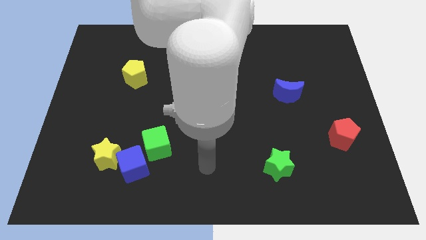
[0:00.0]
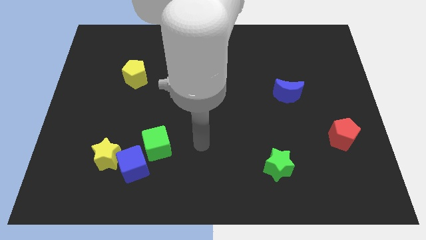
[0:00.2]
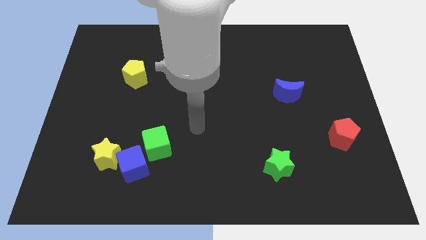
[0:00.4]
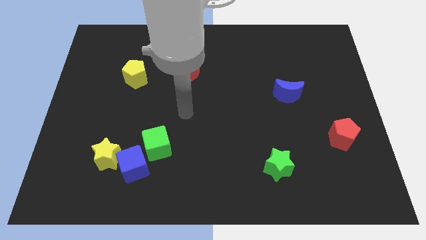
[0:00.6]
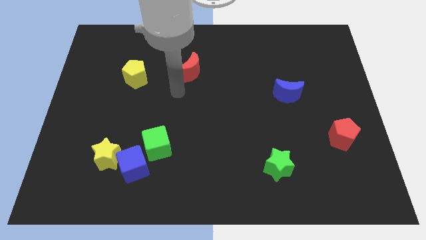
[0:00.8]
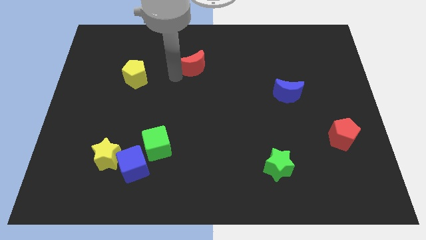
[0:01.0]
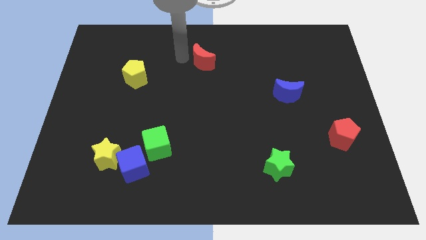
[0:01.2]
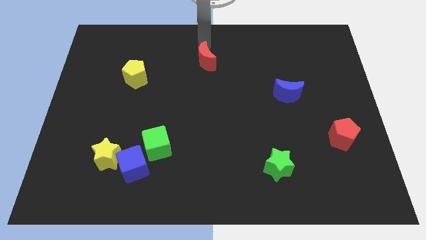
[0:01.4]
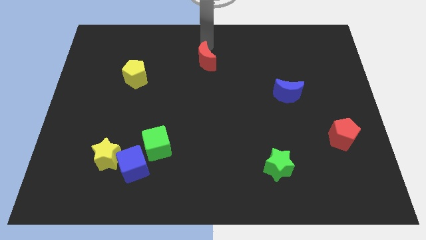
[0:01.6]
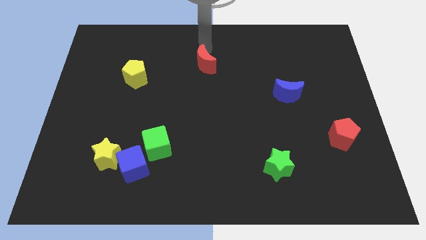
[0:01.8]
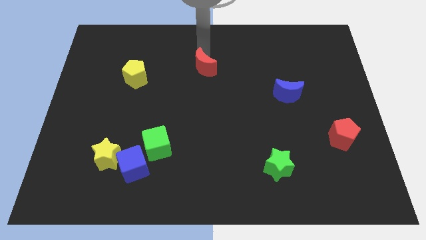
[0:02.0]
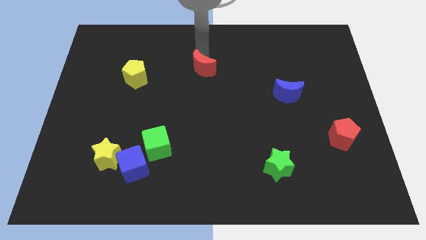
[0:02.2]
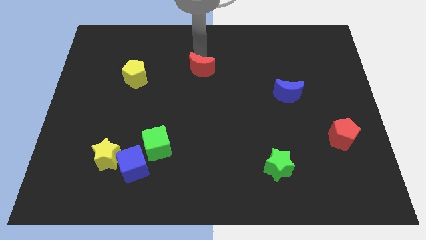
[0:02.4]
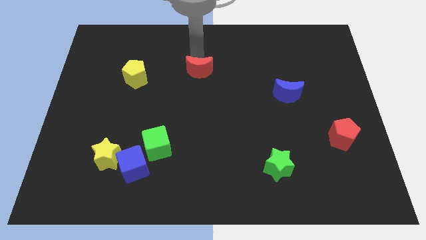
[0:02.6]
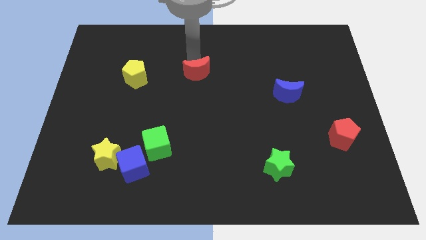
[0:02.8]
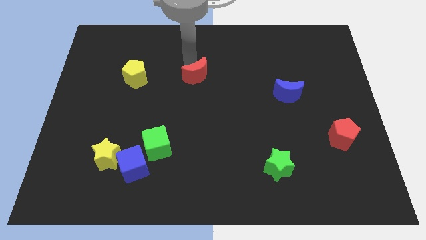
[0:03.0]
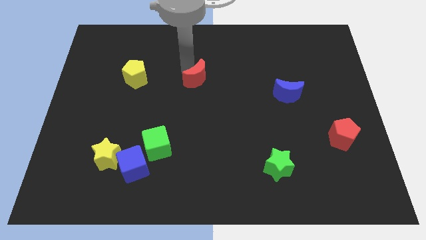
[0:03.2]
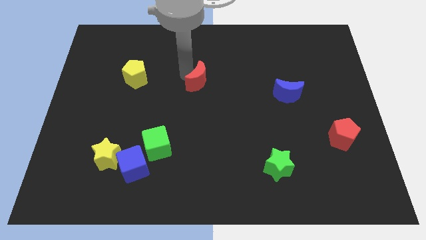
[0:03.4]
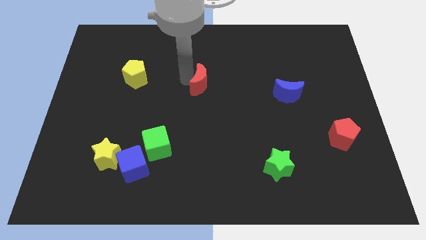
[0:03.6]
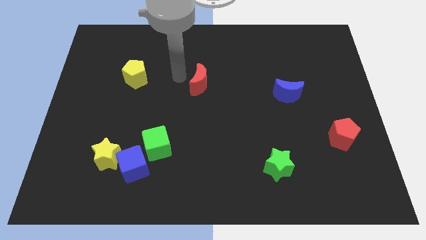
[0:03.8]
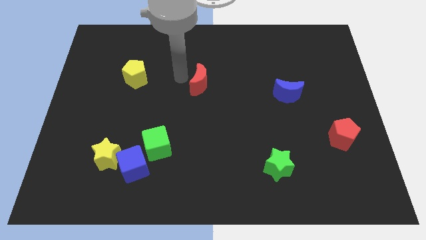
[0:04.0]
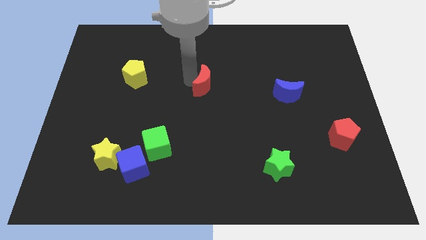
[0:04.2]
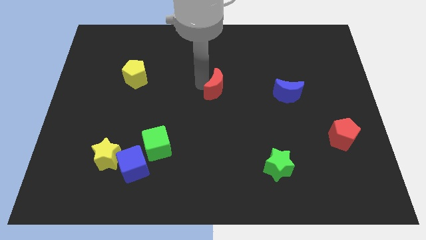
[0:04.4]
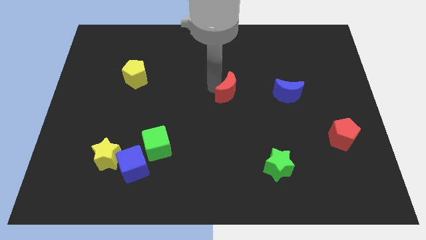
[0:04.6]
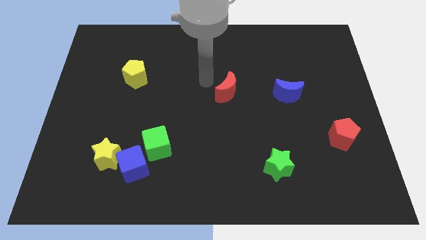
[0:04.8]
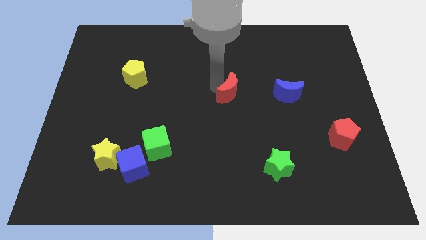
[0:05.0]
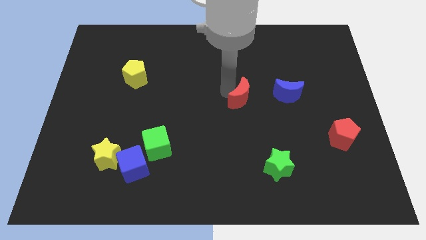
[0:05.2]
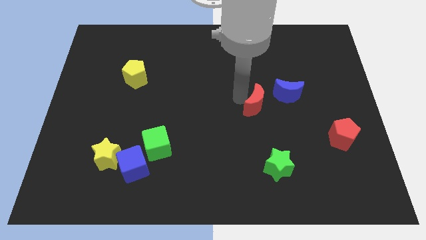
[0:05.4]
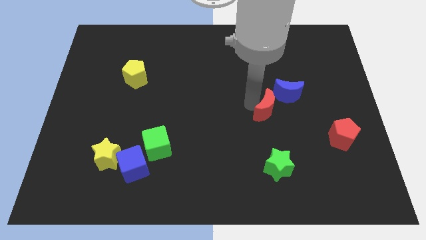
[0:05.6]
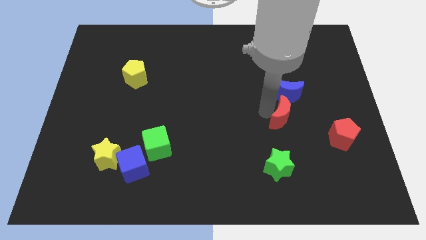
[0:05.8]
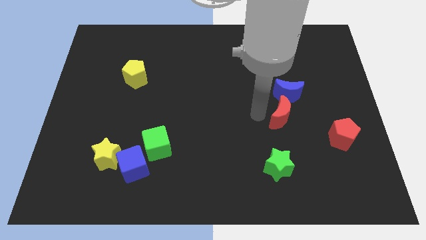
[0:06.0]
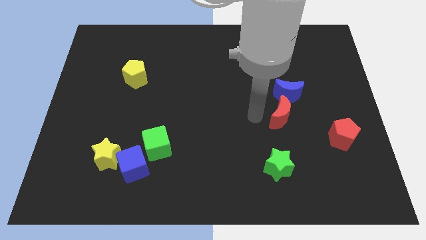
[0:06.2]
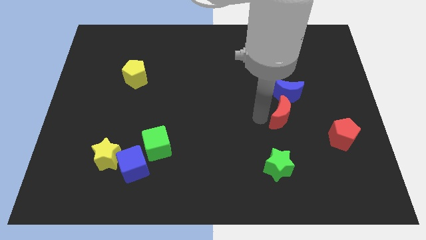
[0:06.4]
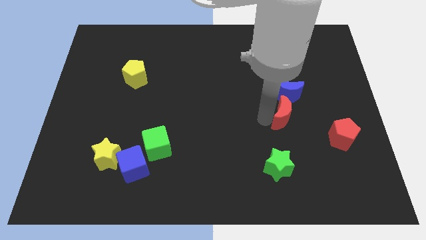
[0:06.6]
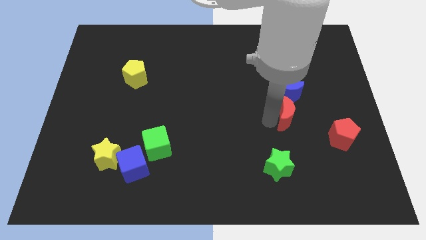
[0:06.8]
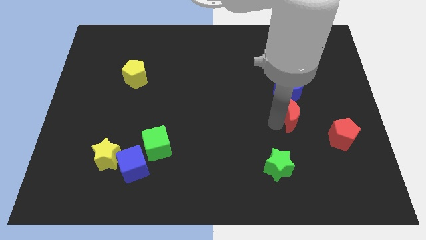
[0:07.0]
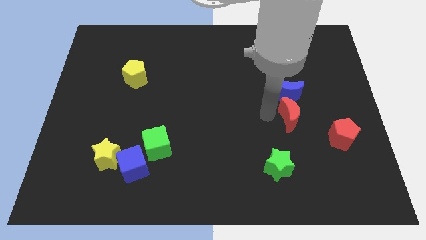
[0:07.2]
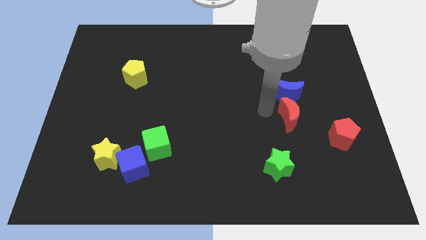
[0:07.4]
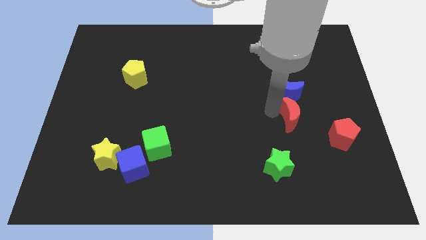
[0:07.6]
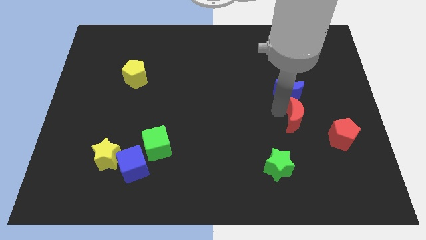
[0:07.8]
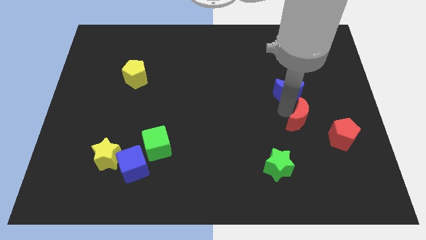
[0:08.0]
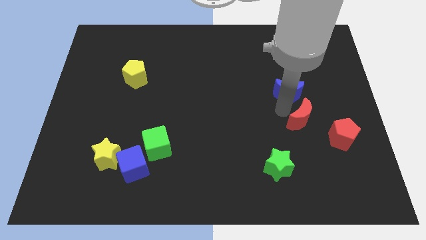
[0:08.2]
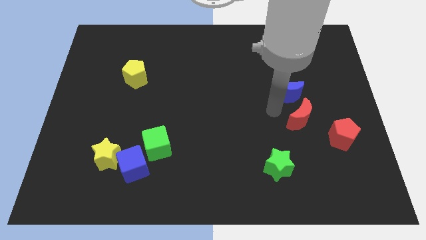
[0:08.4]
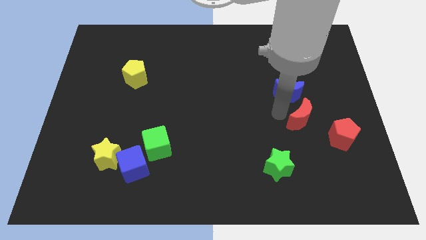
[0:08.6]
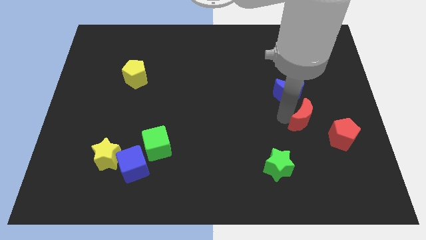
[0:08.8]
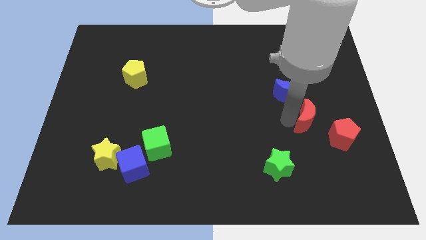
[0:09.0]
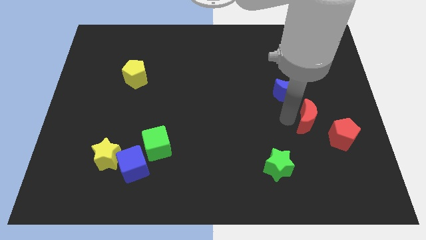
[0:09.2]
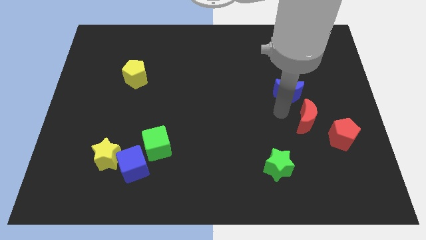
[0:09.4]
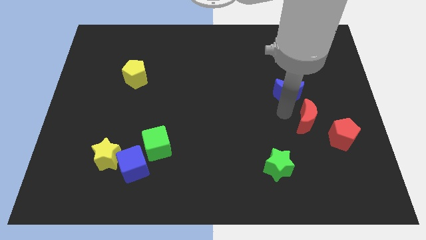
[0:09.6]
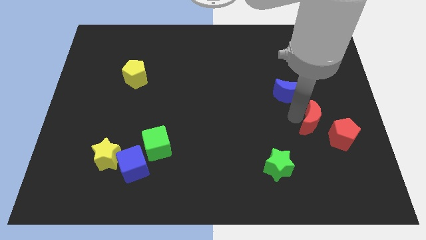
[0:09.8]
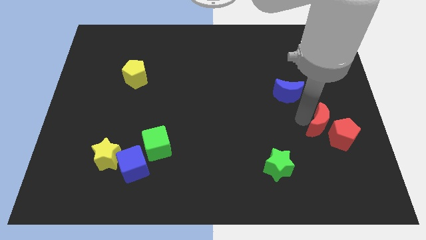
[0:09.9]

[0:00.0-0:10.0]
move the red moon next to the red pentagon

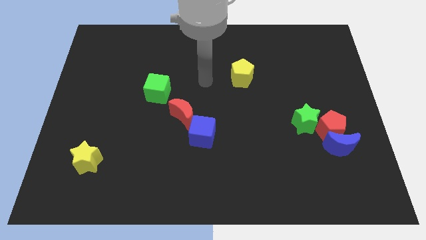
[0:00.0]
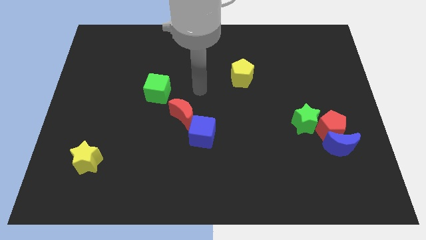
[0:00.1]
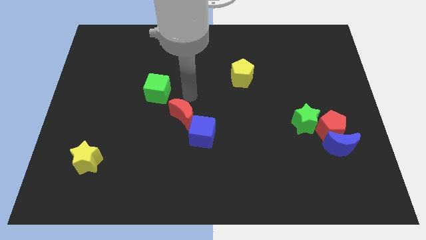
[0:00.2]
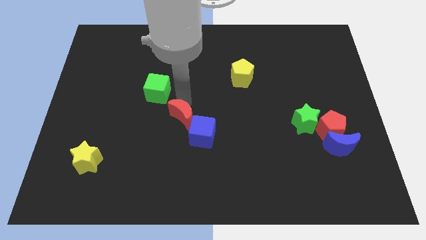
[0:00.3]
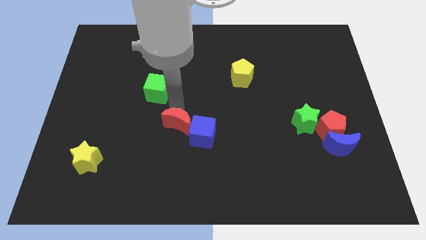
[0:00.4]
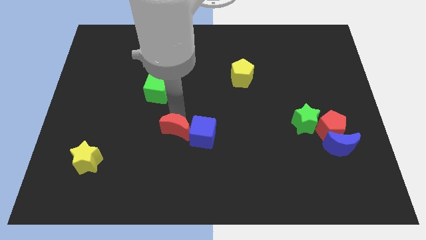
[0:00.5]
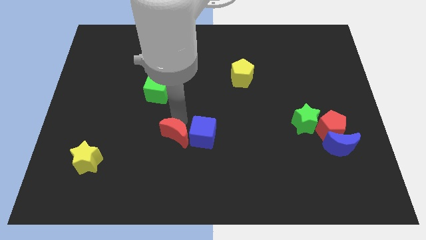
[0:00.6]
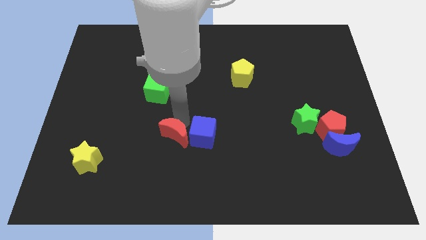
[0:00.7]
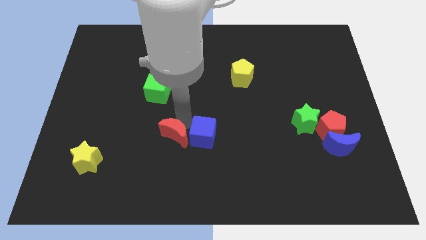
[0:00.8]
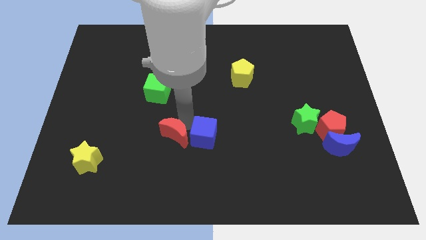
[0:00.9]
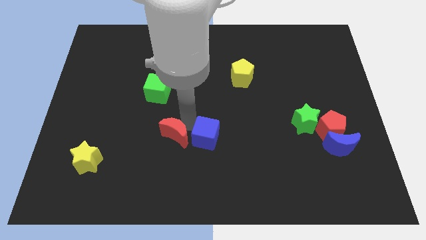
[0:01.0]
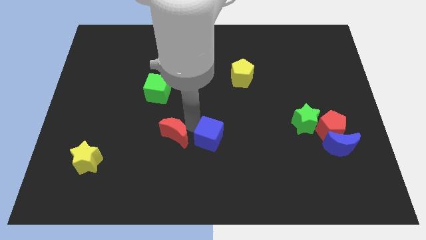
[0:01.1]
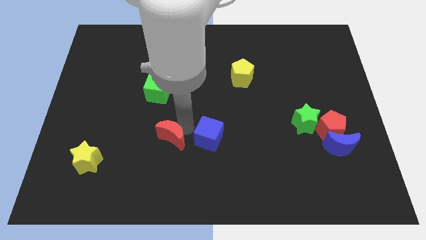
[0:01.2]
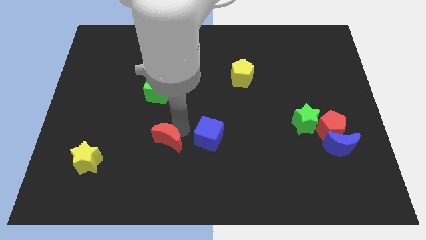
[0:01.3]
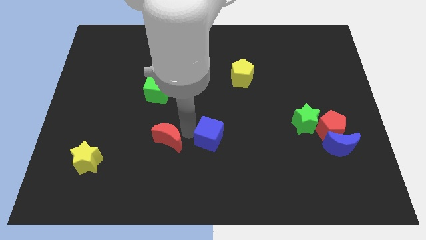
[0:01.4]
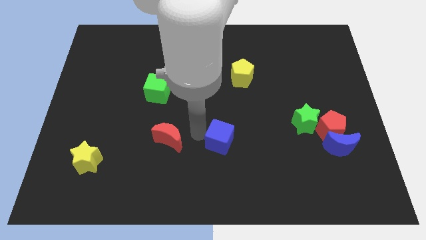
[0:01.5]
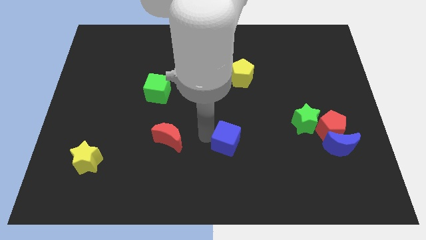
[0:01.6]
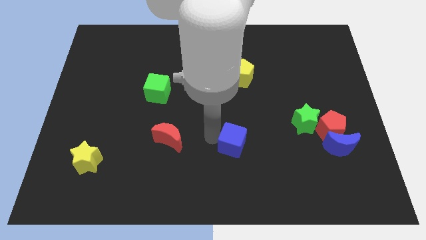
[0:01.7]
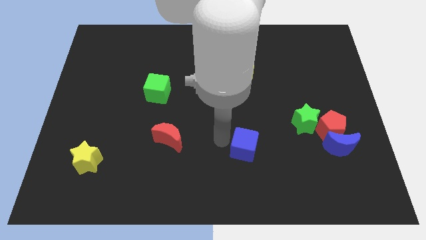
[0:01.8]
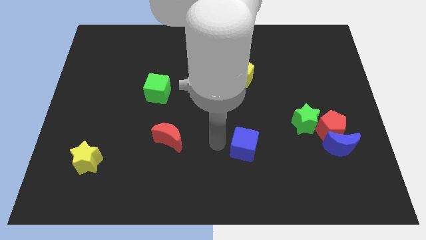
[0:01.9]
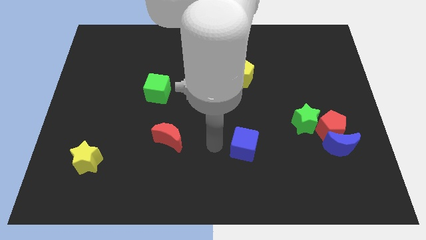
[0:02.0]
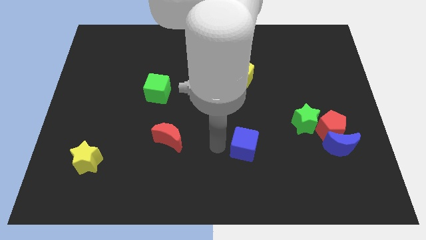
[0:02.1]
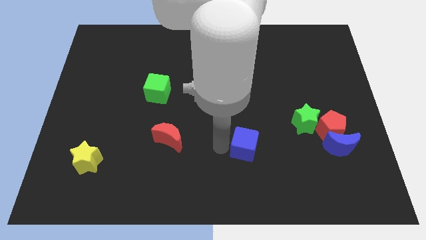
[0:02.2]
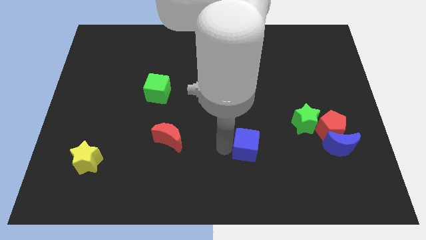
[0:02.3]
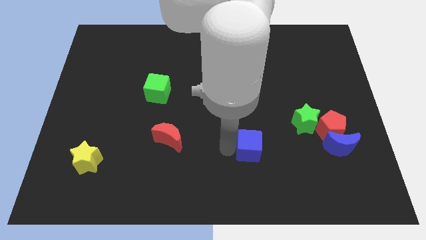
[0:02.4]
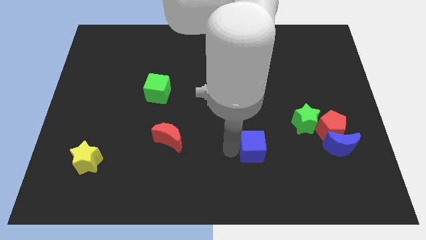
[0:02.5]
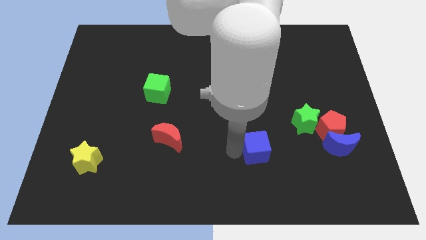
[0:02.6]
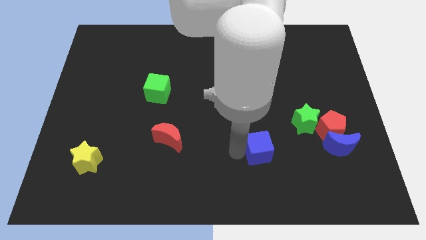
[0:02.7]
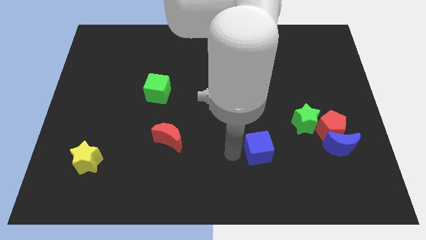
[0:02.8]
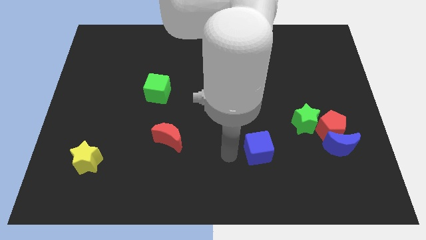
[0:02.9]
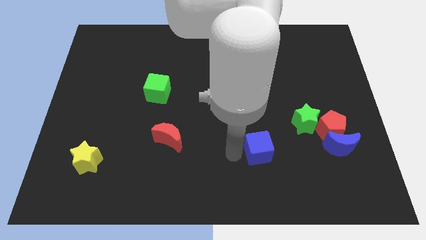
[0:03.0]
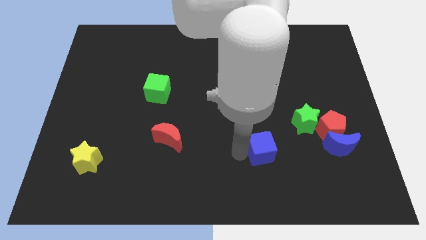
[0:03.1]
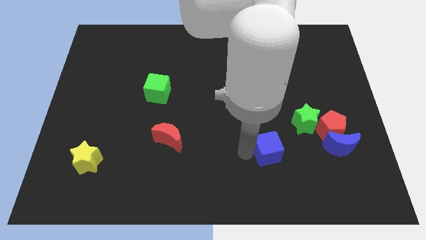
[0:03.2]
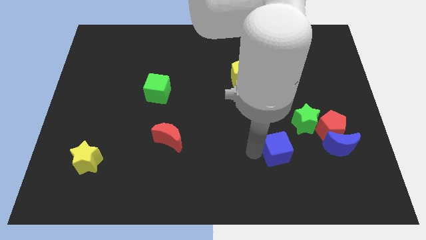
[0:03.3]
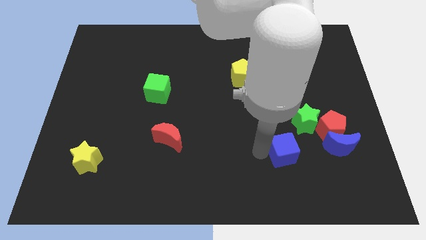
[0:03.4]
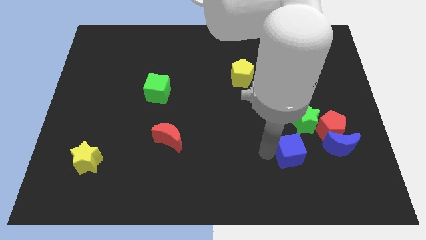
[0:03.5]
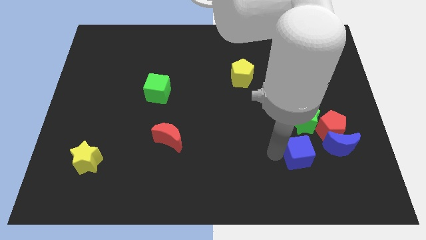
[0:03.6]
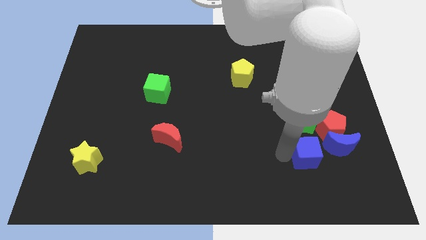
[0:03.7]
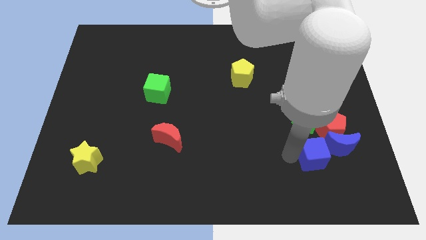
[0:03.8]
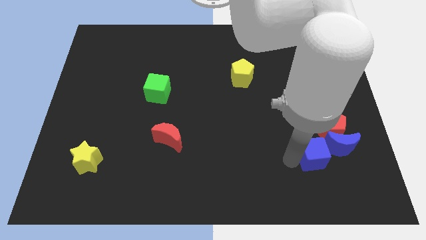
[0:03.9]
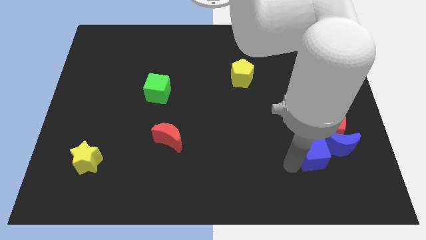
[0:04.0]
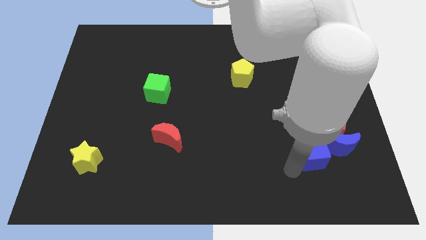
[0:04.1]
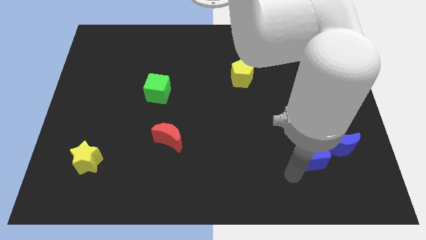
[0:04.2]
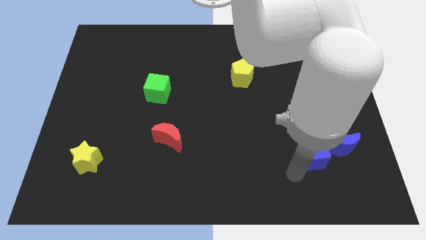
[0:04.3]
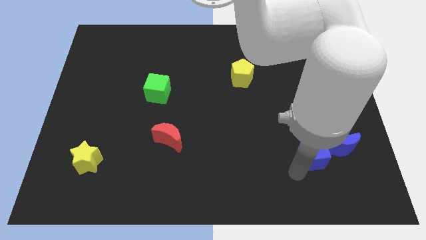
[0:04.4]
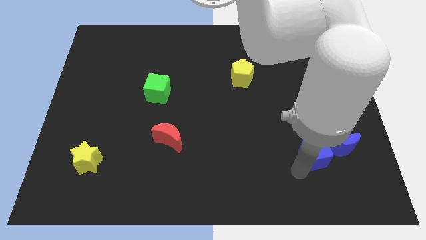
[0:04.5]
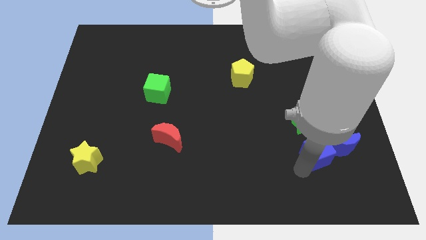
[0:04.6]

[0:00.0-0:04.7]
slide the blue cube towards the blue moon
